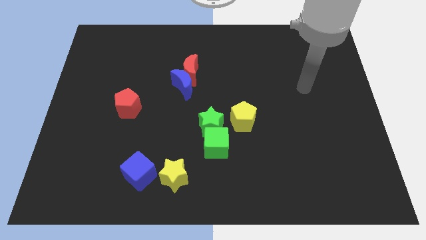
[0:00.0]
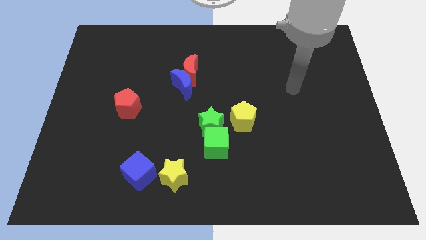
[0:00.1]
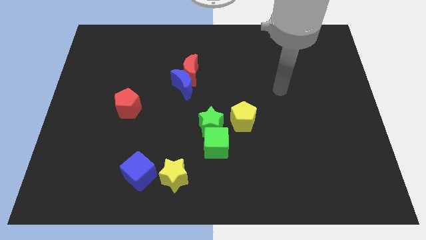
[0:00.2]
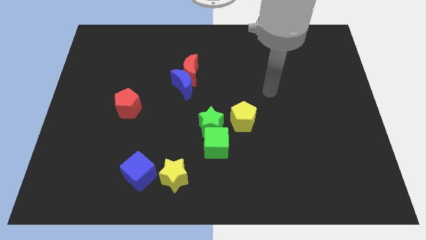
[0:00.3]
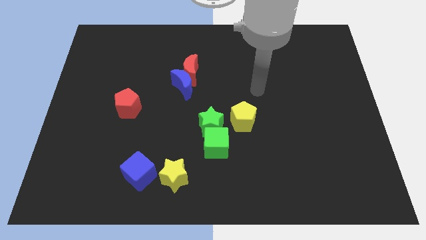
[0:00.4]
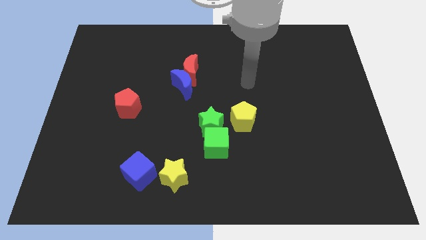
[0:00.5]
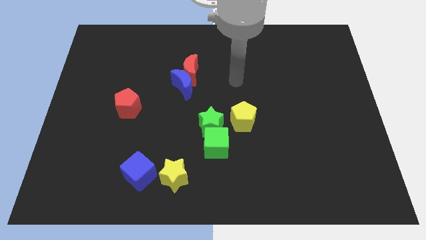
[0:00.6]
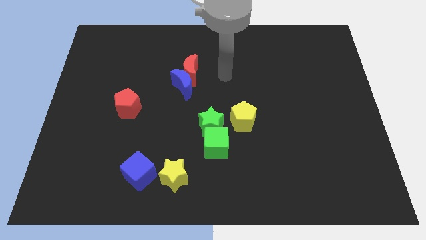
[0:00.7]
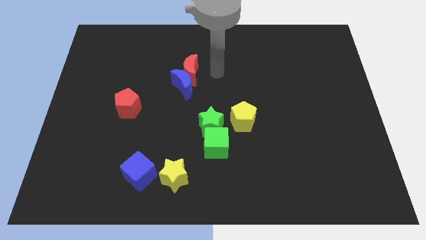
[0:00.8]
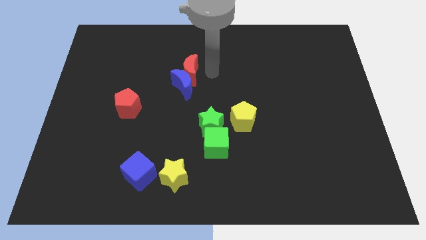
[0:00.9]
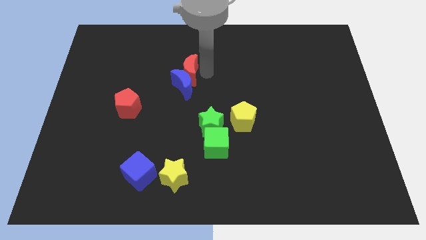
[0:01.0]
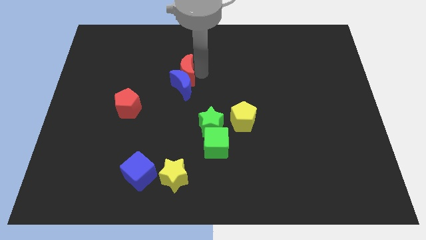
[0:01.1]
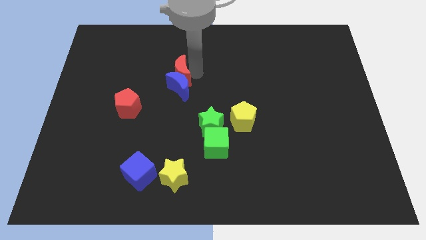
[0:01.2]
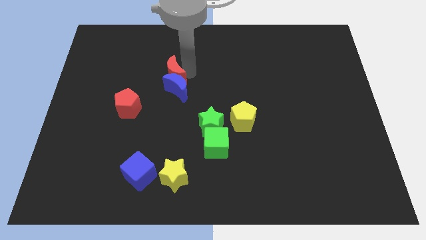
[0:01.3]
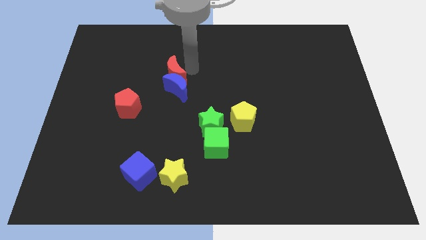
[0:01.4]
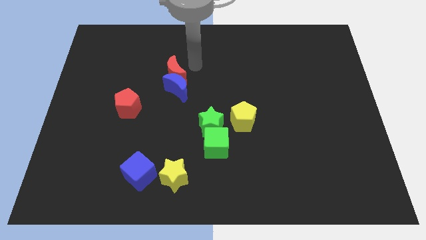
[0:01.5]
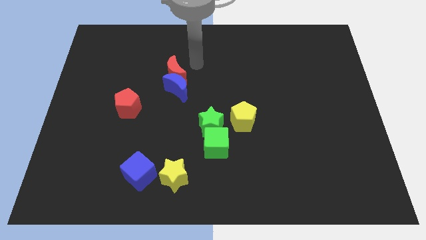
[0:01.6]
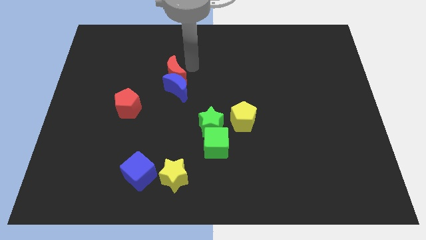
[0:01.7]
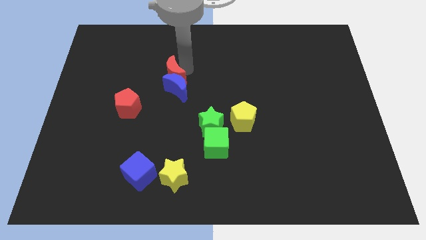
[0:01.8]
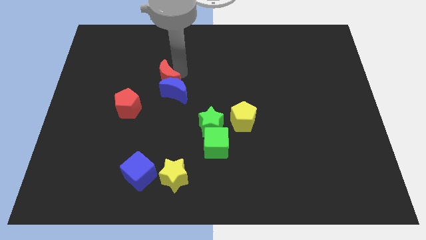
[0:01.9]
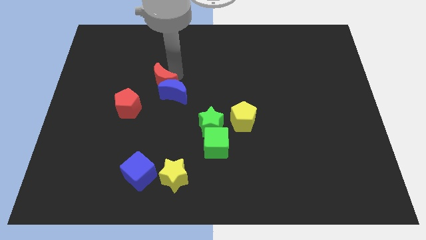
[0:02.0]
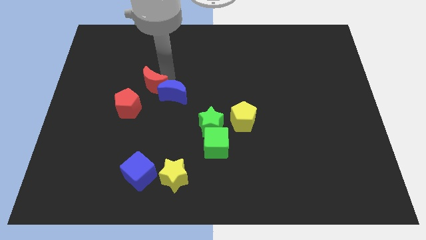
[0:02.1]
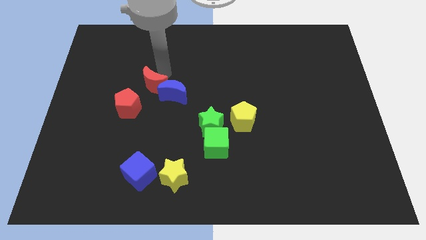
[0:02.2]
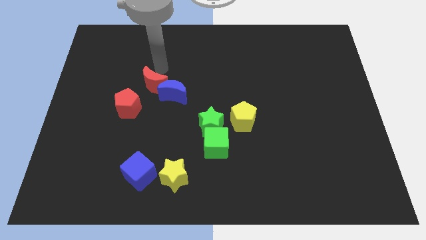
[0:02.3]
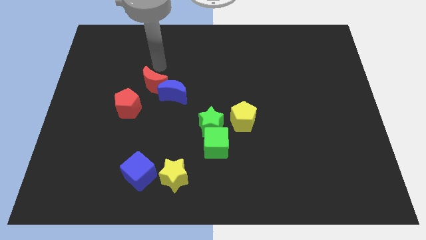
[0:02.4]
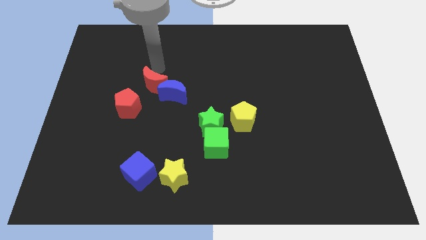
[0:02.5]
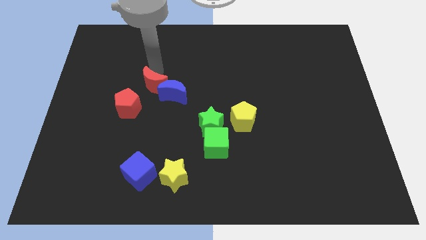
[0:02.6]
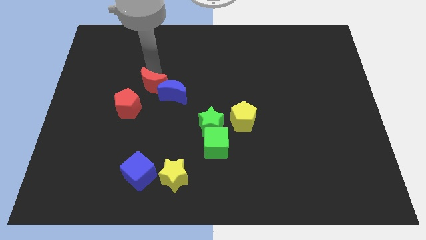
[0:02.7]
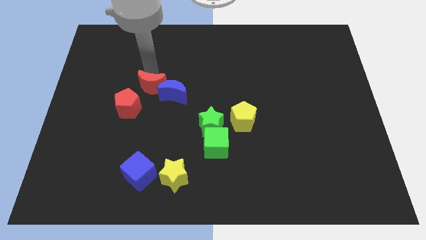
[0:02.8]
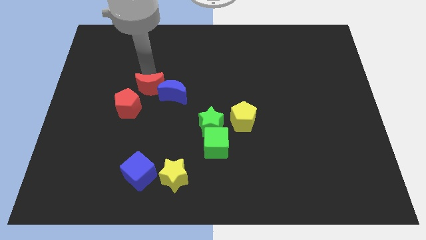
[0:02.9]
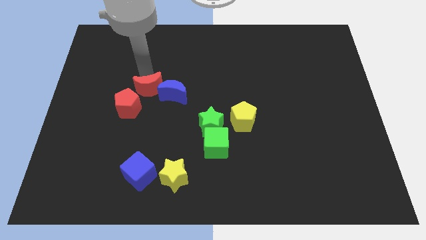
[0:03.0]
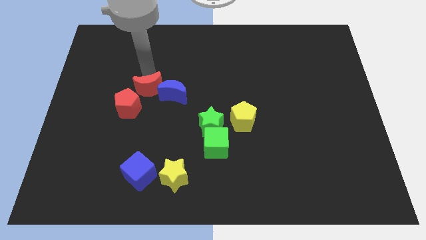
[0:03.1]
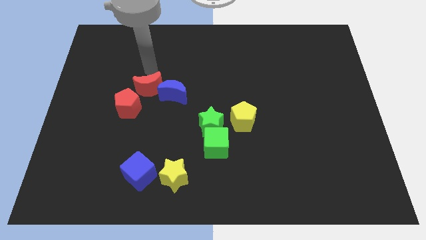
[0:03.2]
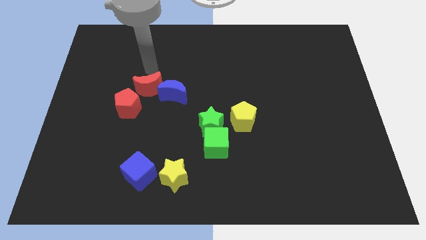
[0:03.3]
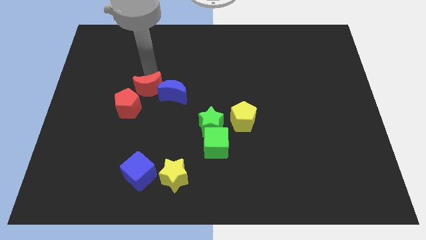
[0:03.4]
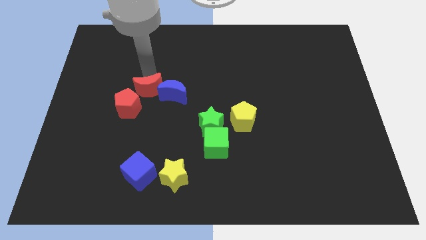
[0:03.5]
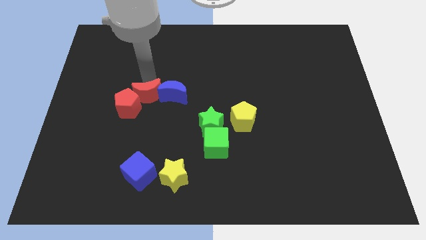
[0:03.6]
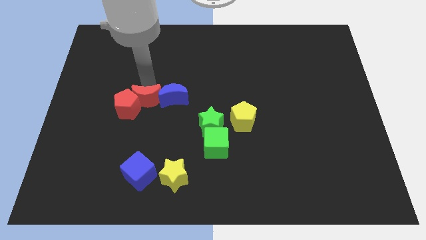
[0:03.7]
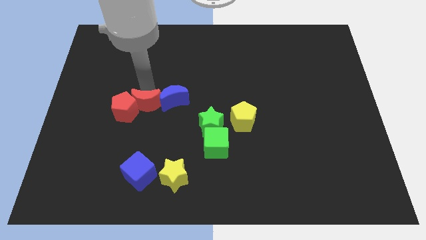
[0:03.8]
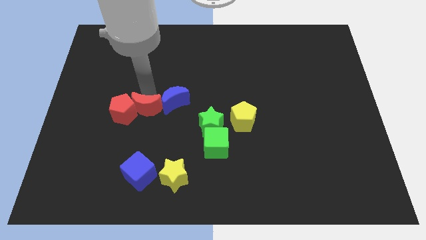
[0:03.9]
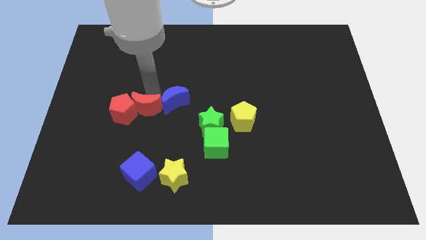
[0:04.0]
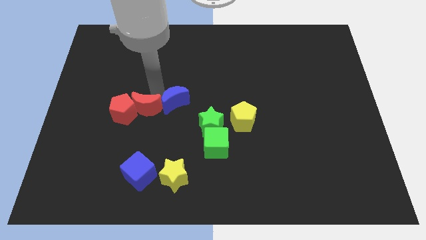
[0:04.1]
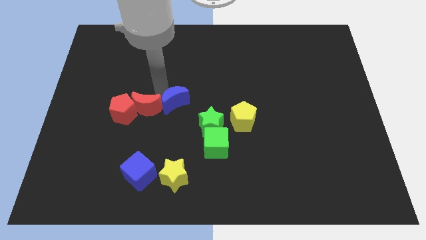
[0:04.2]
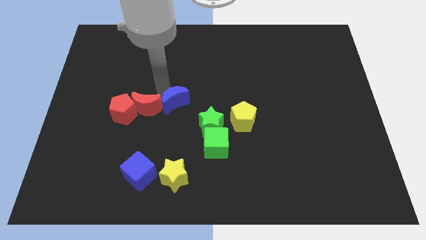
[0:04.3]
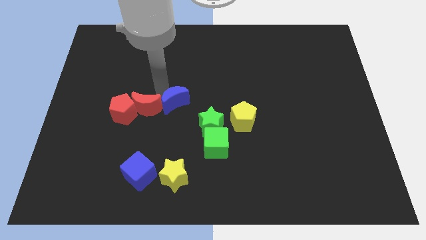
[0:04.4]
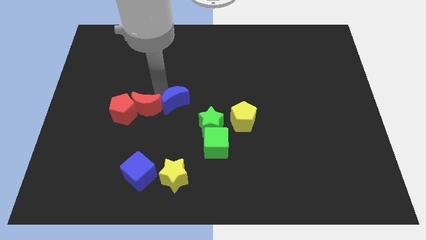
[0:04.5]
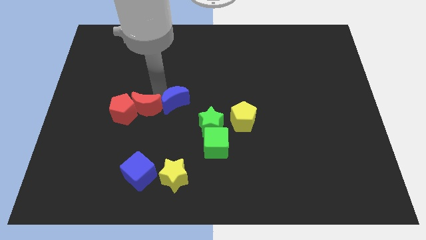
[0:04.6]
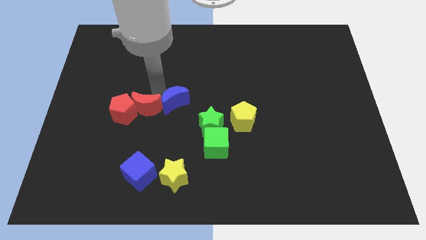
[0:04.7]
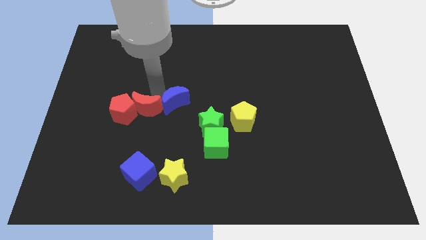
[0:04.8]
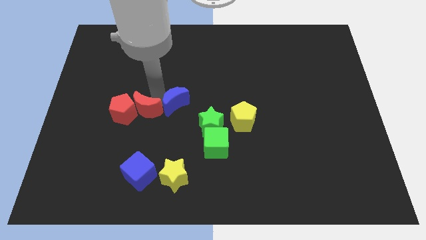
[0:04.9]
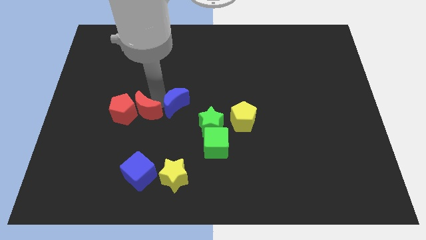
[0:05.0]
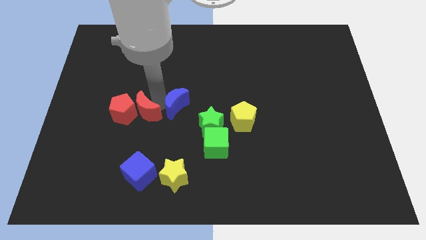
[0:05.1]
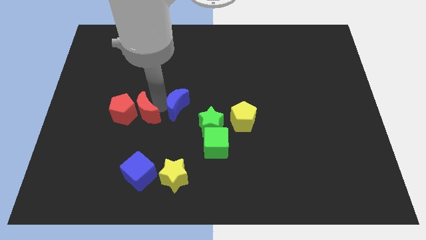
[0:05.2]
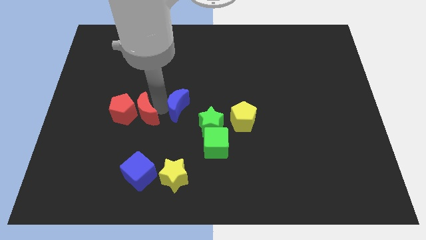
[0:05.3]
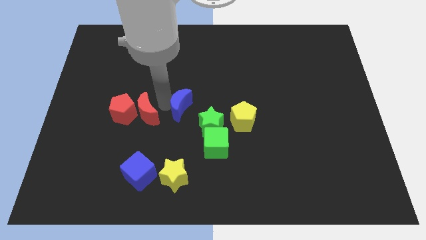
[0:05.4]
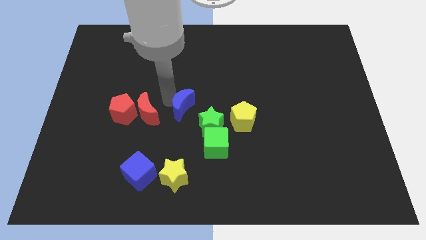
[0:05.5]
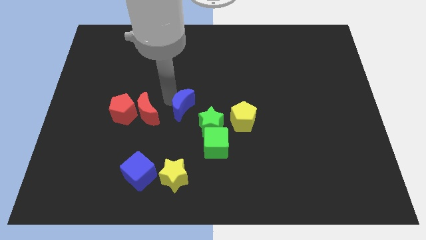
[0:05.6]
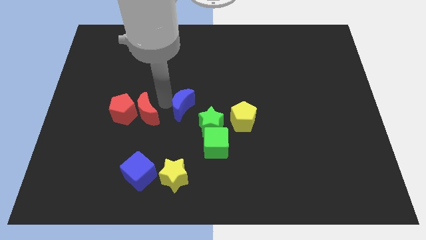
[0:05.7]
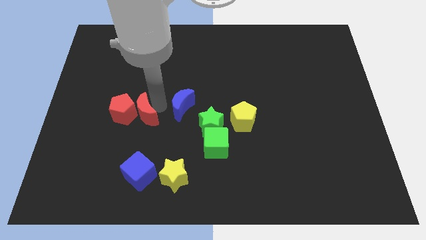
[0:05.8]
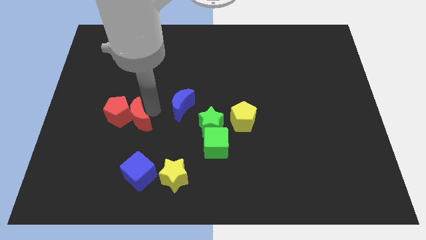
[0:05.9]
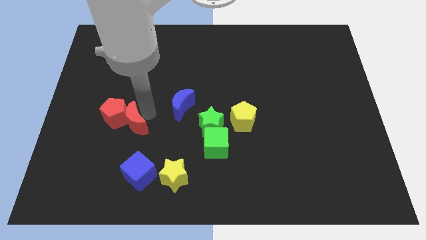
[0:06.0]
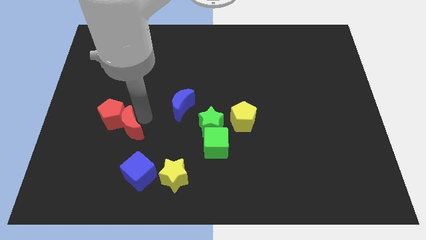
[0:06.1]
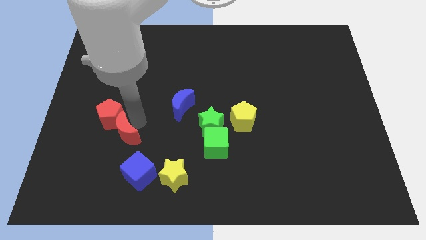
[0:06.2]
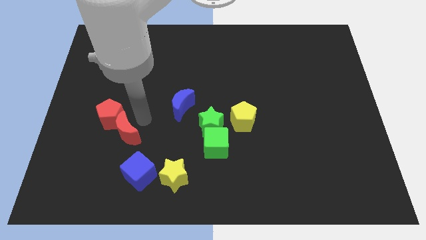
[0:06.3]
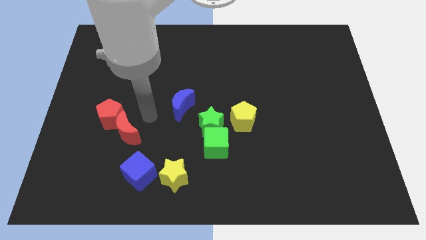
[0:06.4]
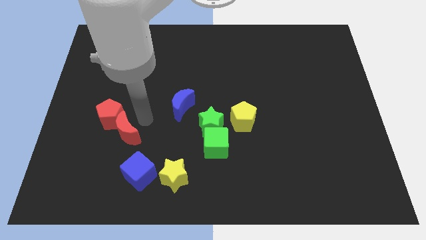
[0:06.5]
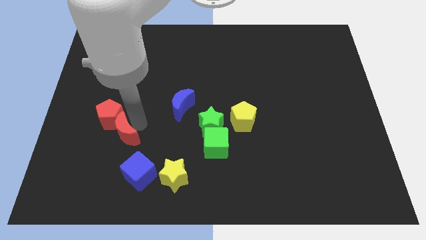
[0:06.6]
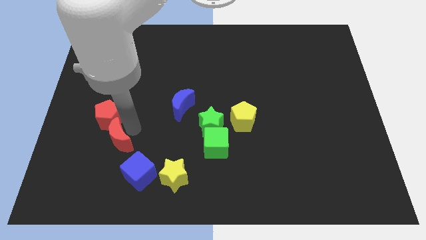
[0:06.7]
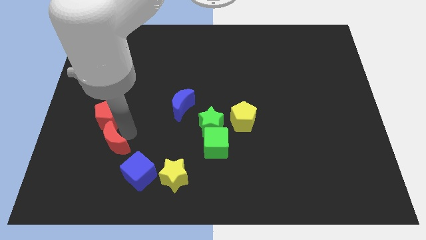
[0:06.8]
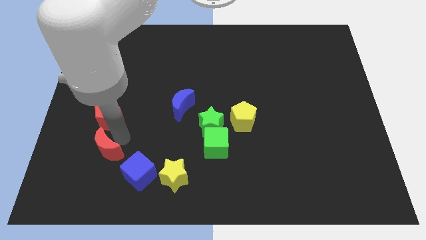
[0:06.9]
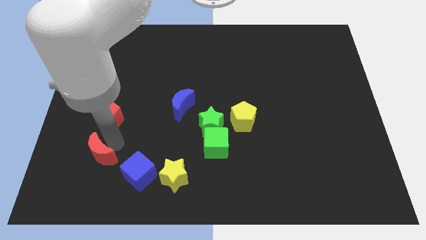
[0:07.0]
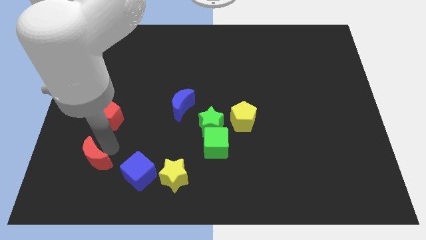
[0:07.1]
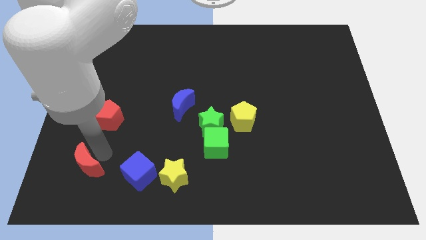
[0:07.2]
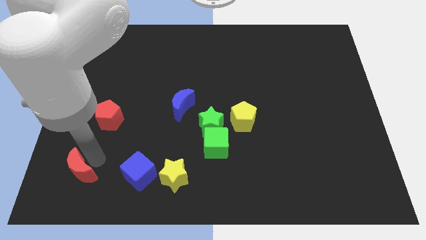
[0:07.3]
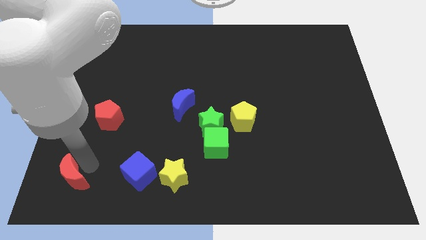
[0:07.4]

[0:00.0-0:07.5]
move the red moon to the bottom left
